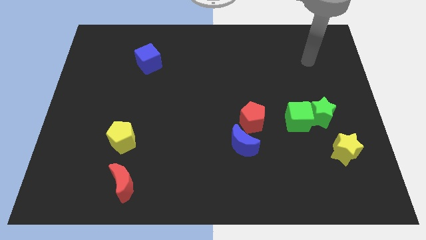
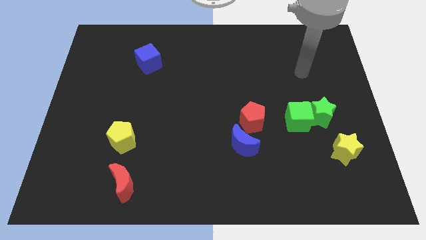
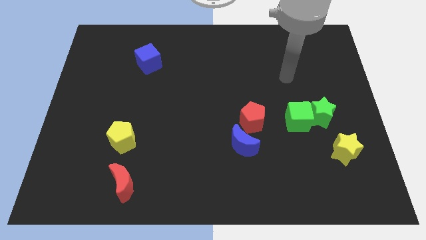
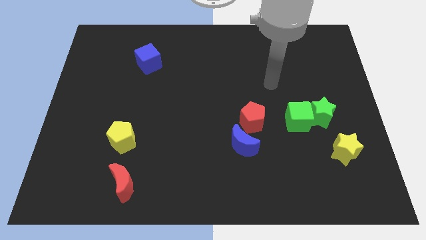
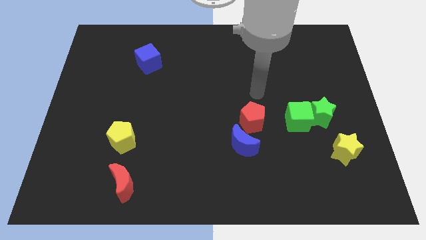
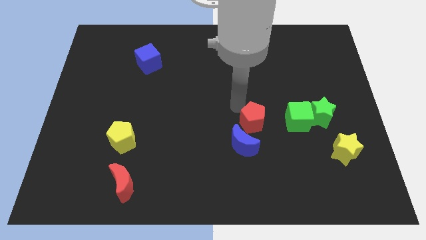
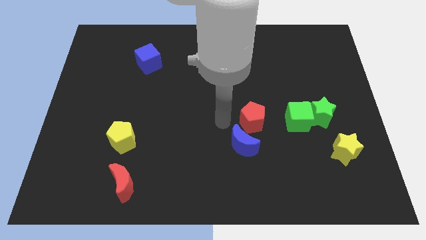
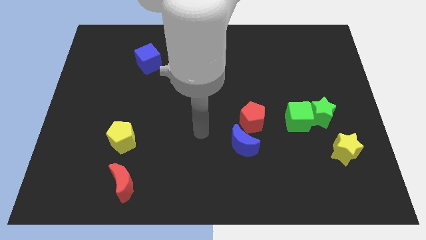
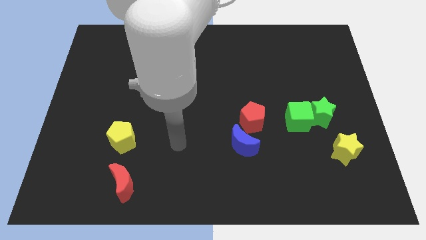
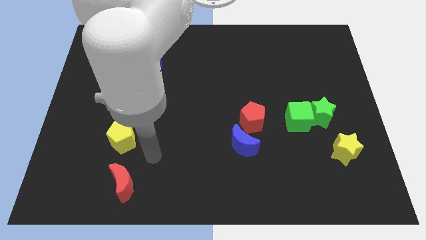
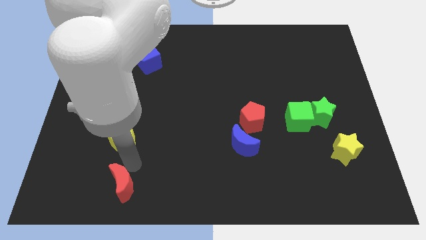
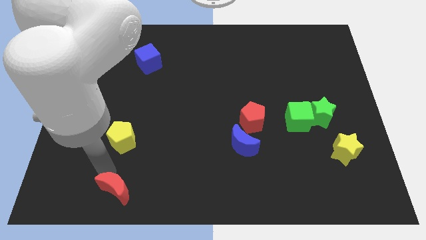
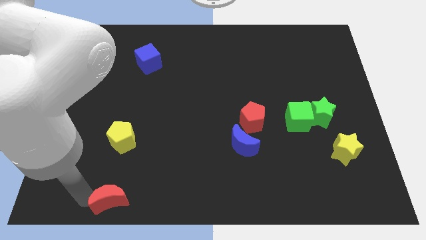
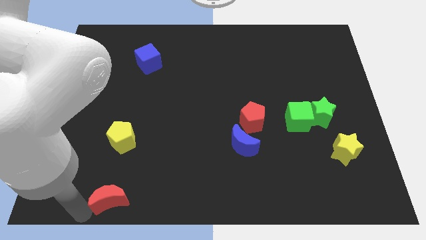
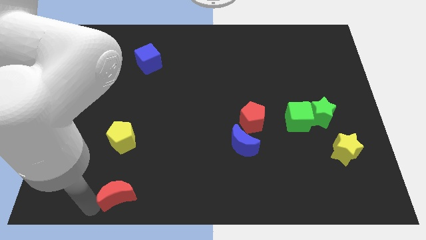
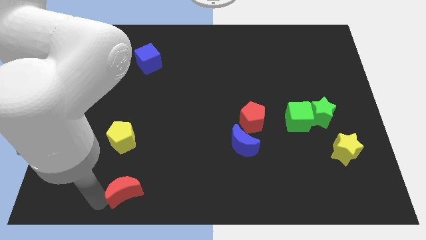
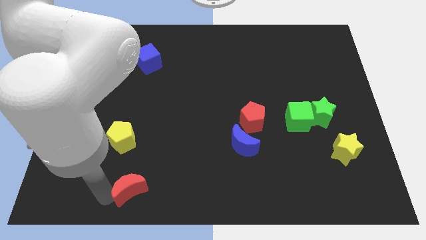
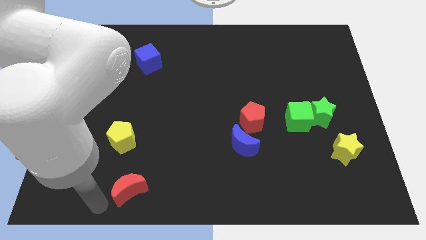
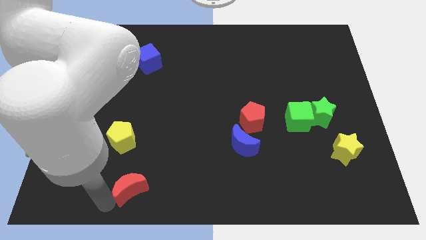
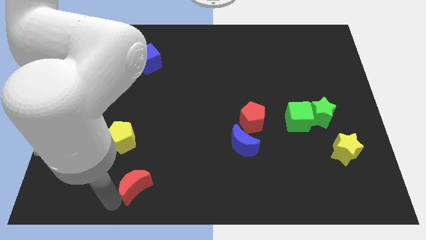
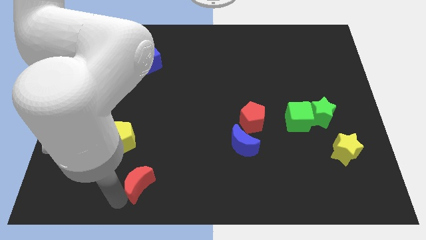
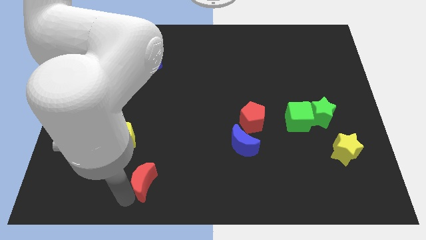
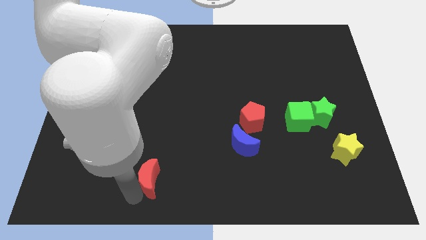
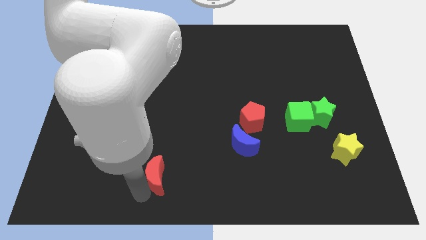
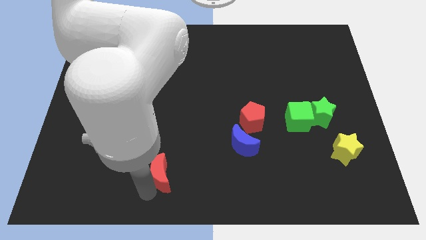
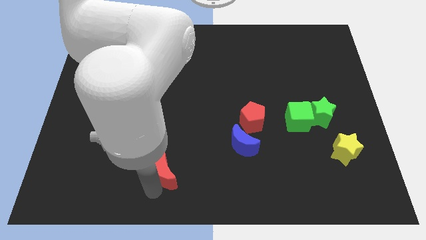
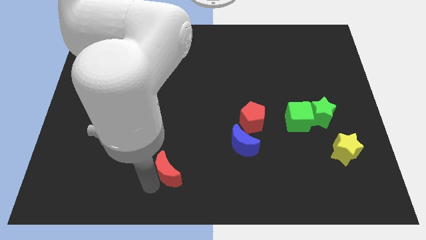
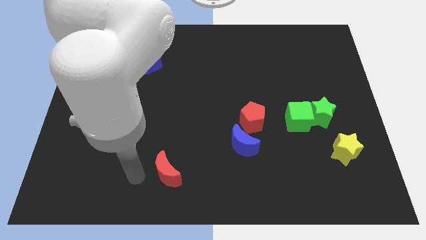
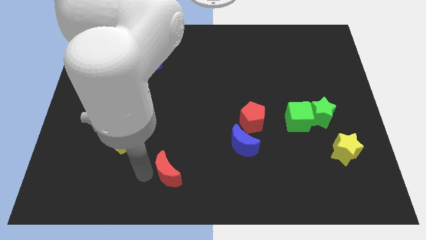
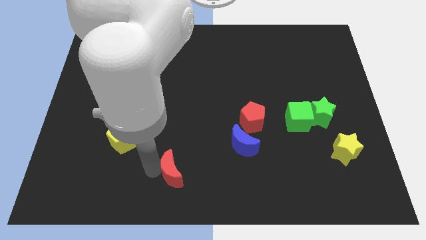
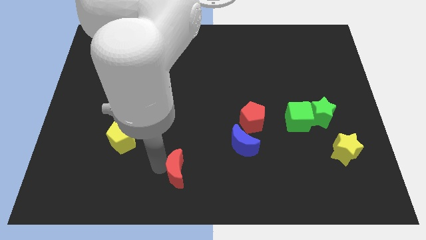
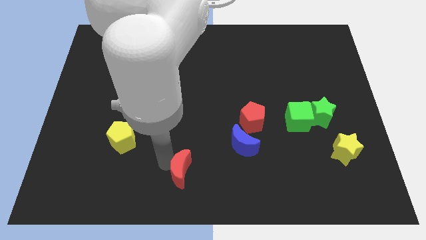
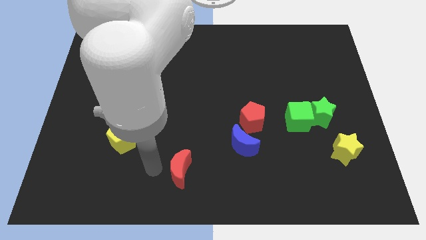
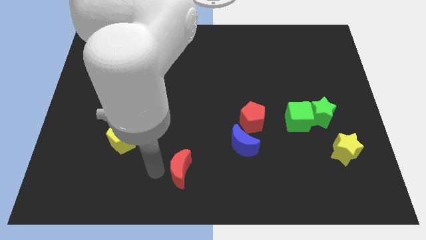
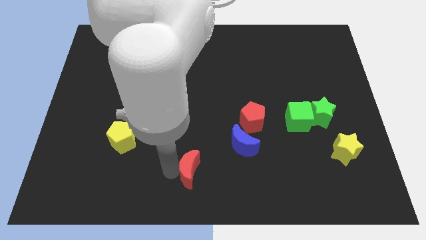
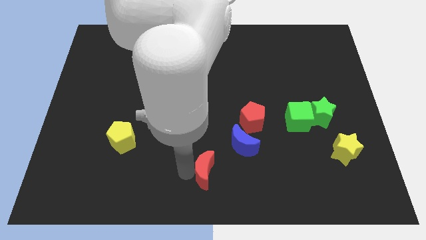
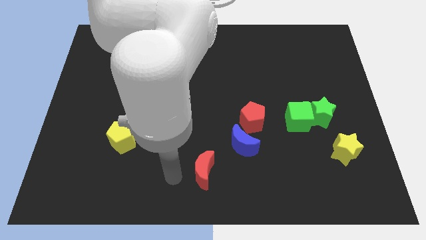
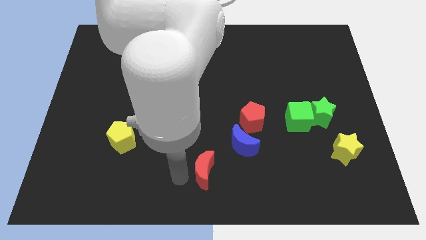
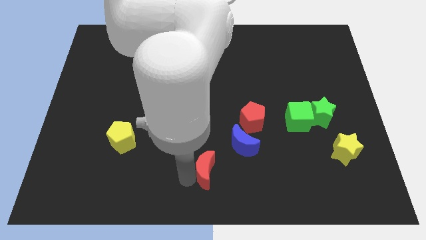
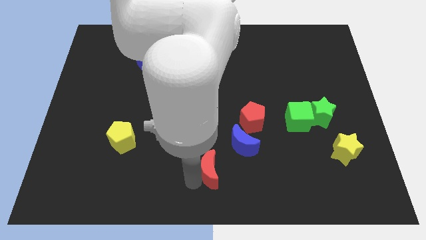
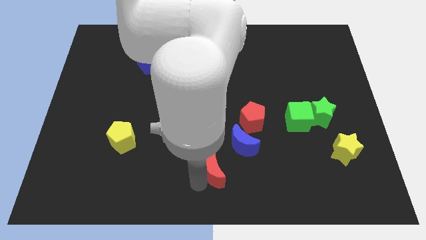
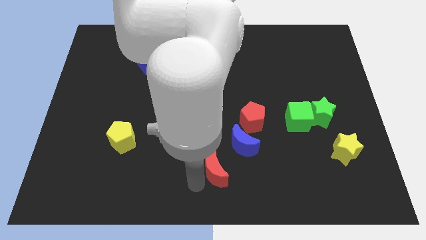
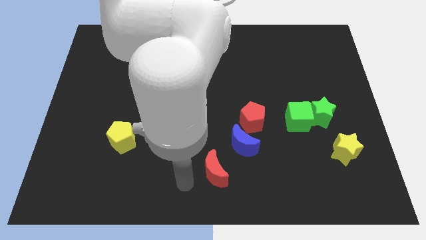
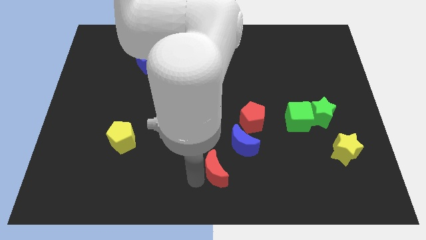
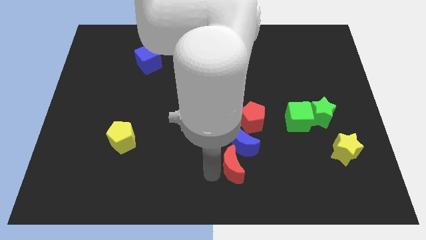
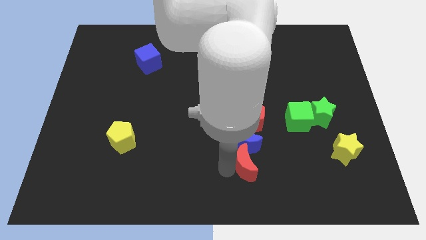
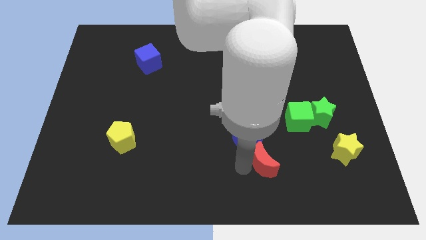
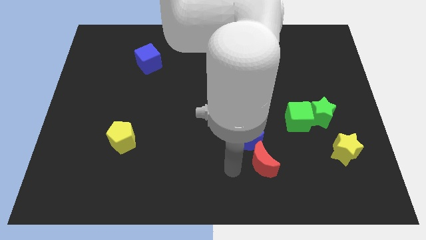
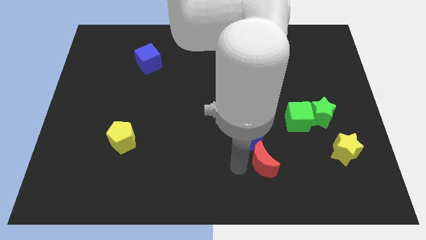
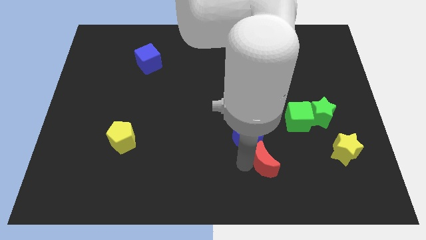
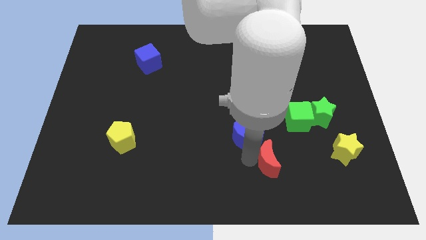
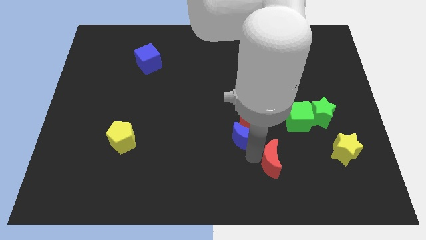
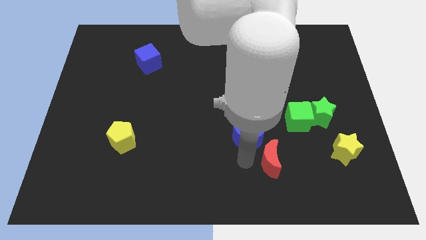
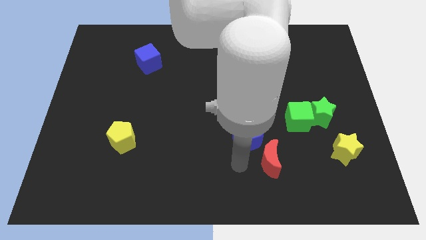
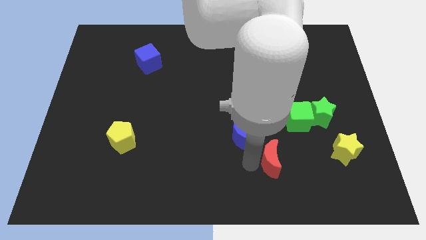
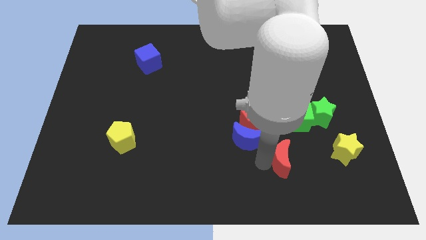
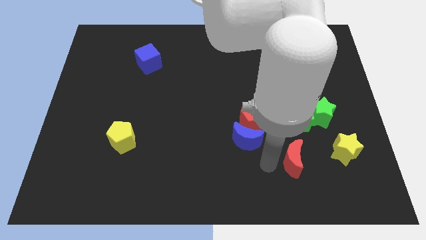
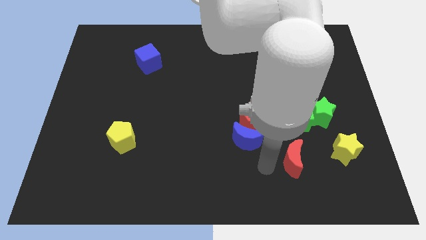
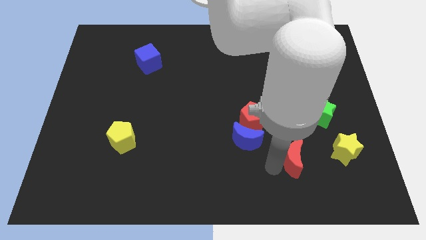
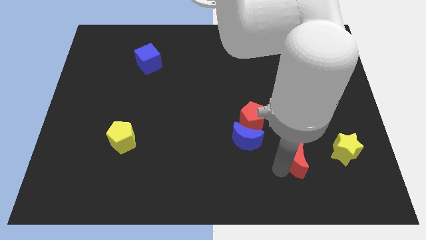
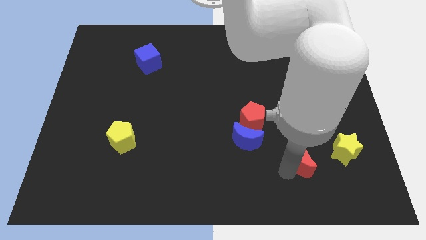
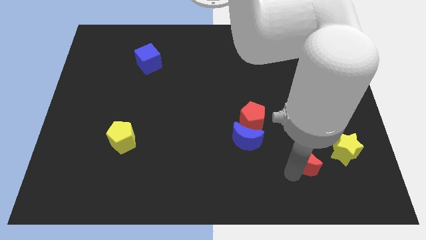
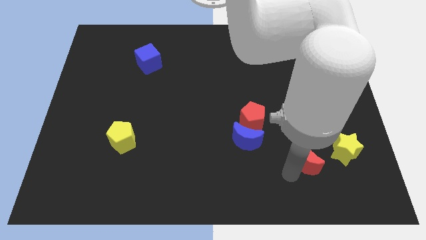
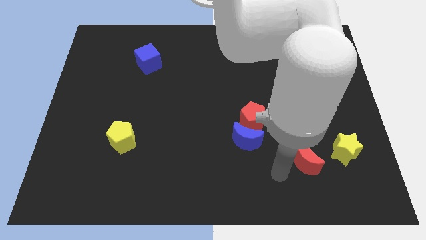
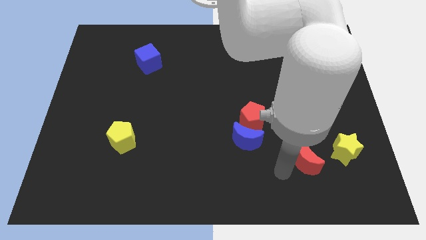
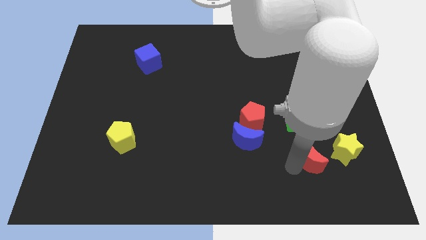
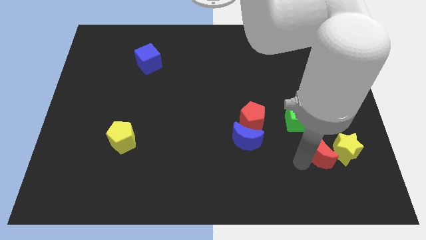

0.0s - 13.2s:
move the red moon close to the yellow star

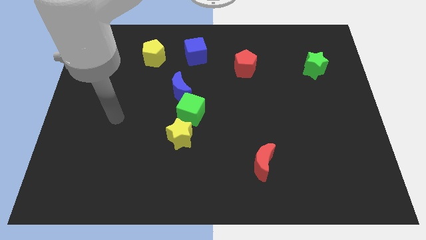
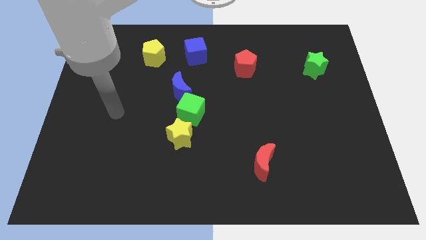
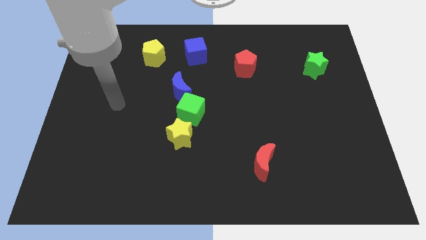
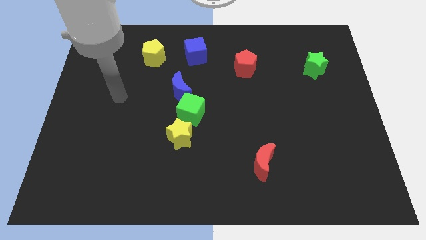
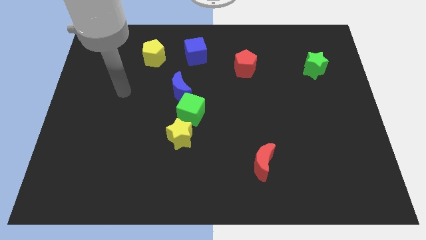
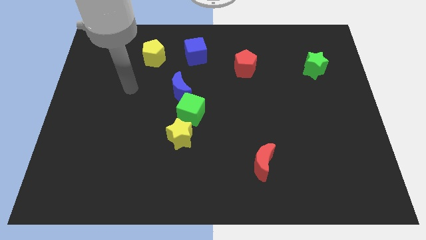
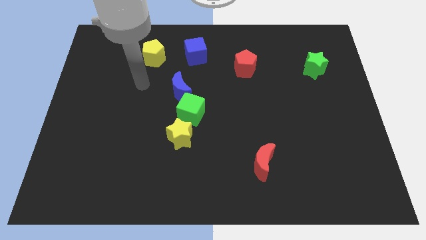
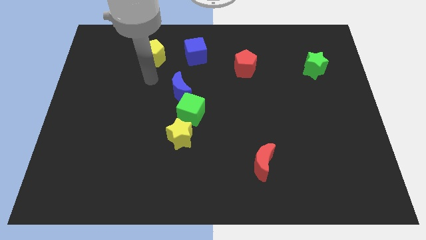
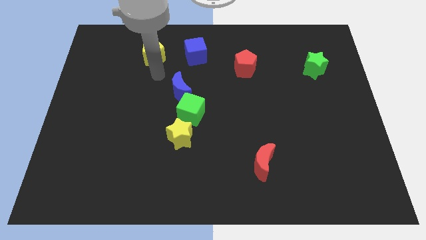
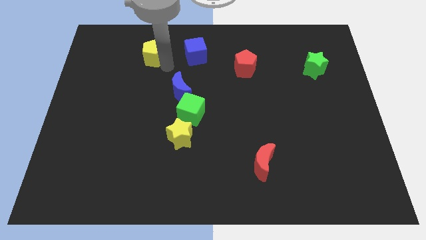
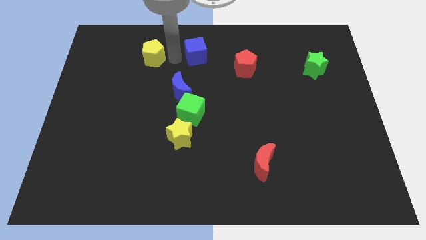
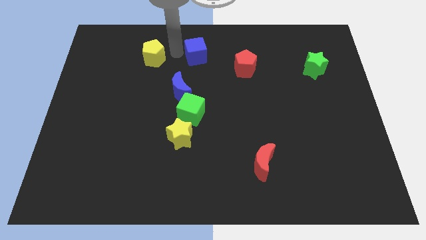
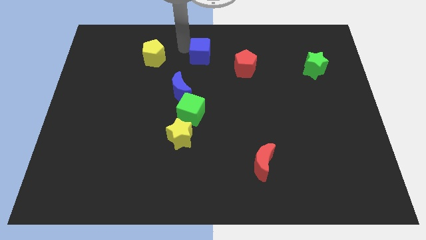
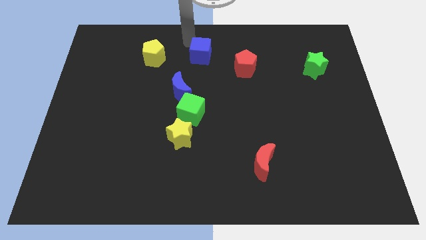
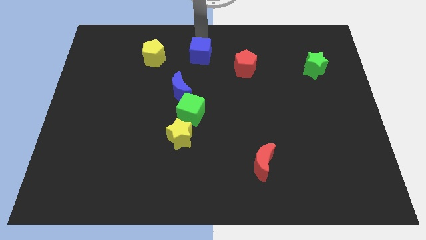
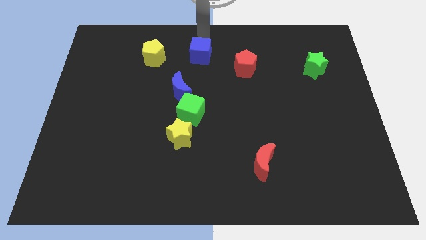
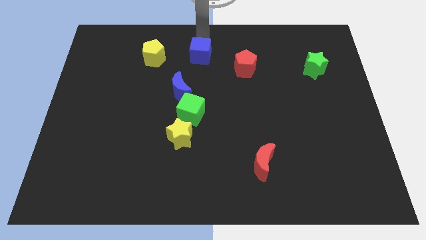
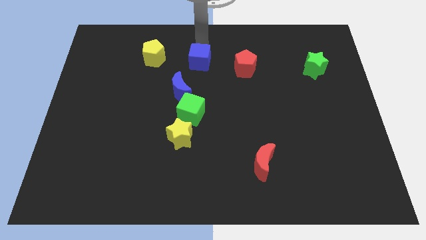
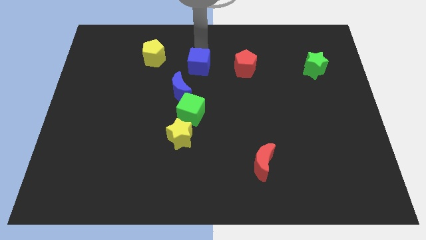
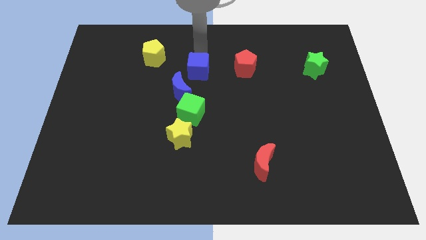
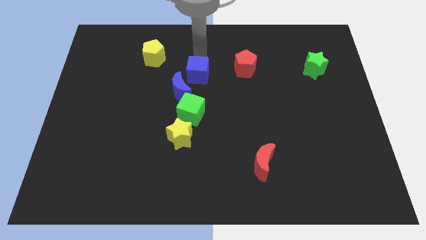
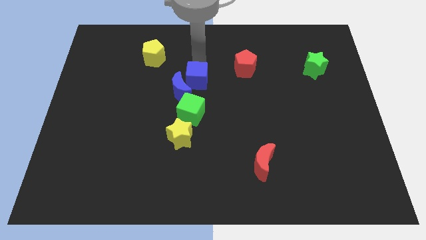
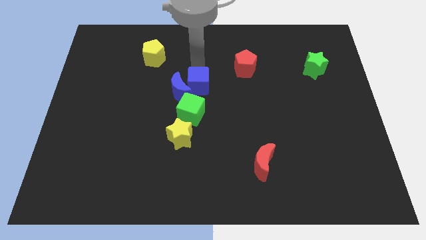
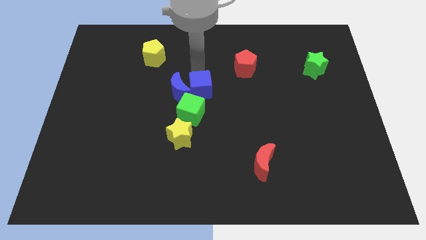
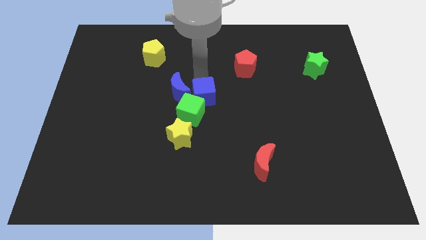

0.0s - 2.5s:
put the blue cube towards the green cube
